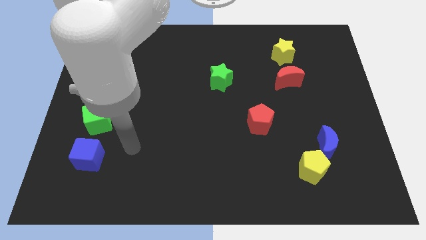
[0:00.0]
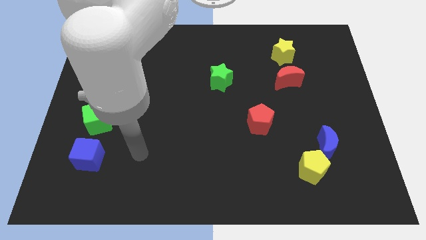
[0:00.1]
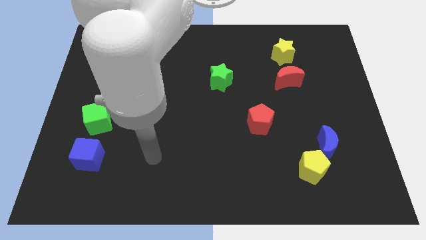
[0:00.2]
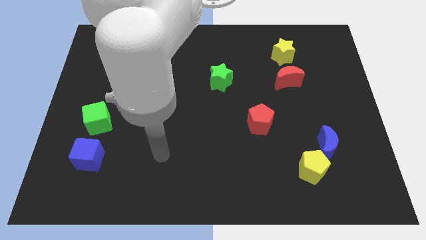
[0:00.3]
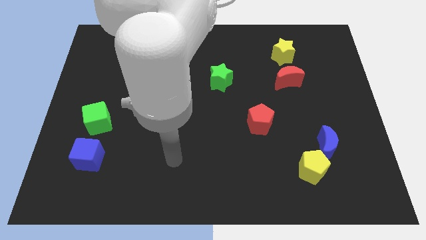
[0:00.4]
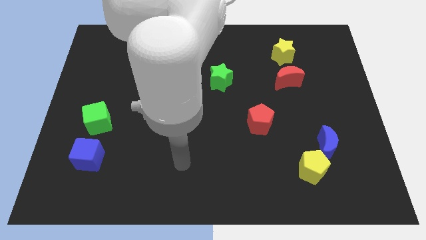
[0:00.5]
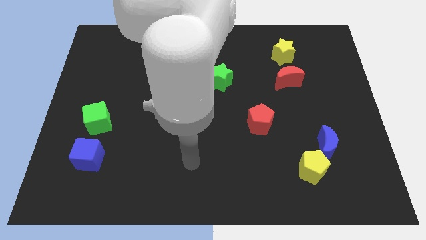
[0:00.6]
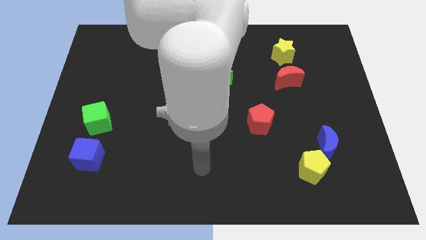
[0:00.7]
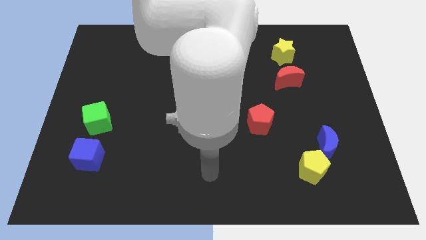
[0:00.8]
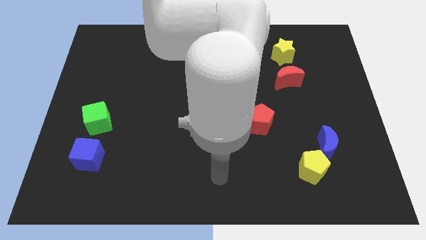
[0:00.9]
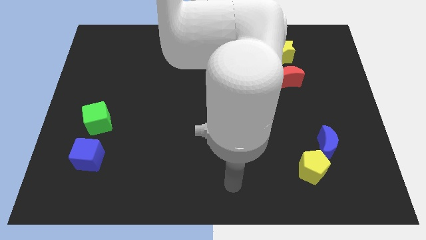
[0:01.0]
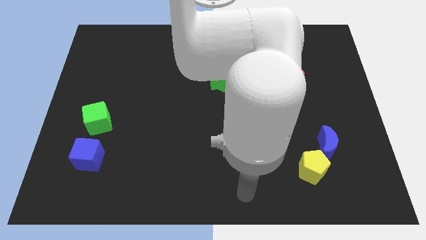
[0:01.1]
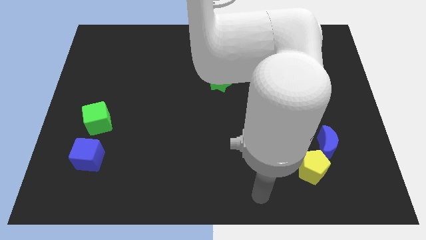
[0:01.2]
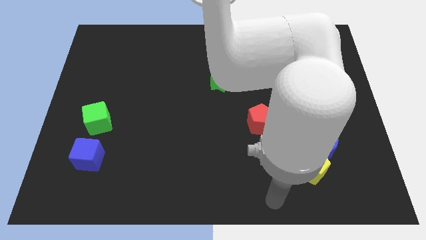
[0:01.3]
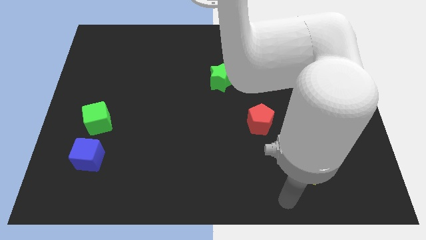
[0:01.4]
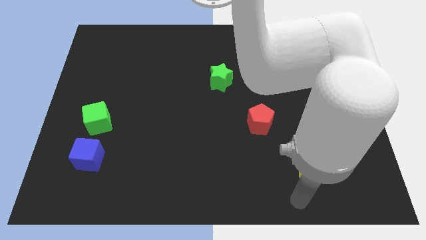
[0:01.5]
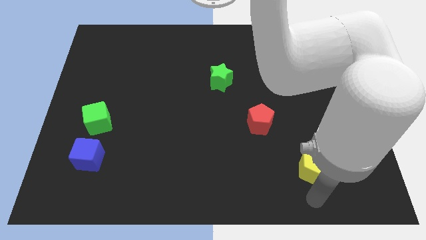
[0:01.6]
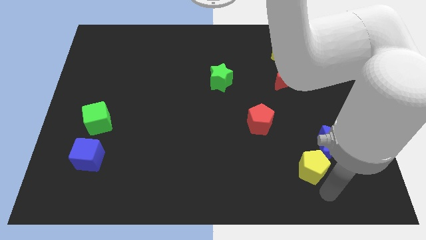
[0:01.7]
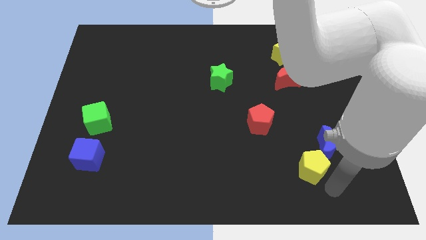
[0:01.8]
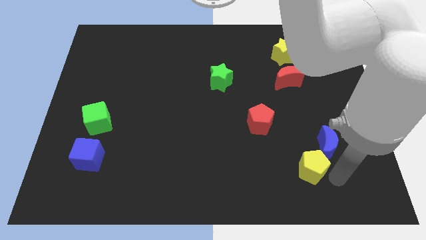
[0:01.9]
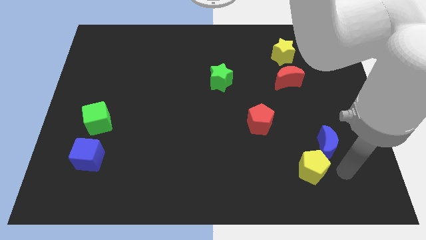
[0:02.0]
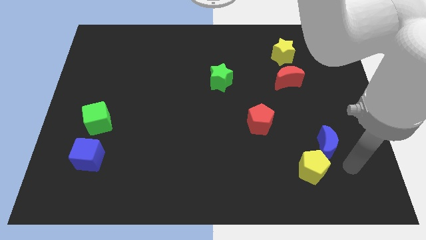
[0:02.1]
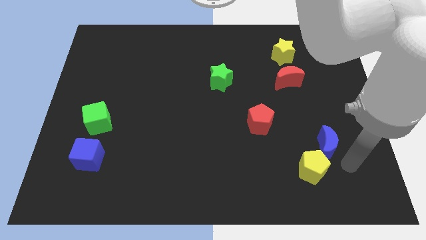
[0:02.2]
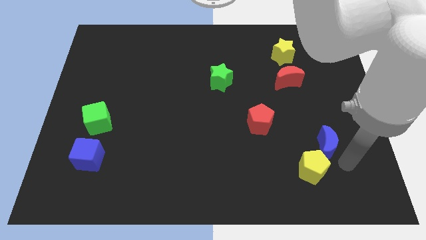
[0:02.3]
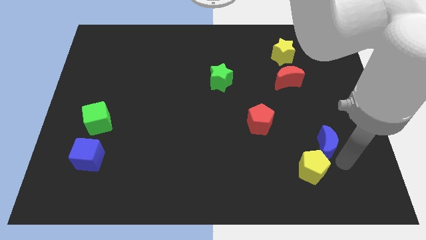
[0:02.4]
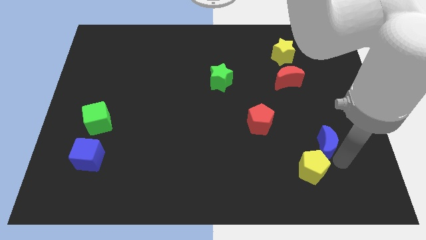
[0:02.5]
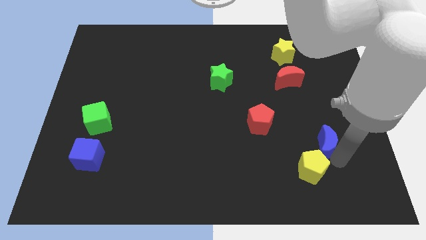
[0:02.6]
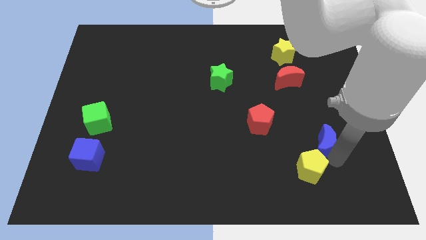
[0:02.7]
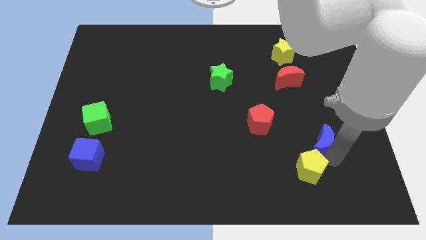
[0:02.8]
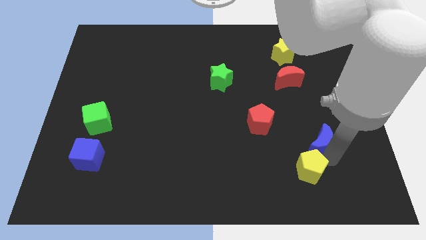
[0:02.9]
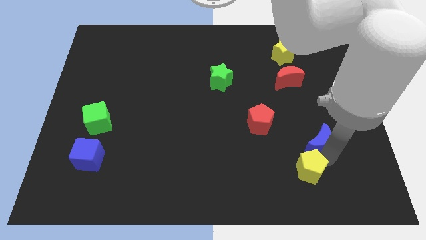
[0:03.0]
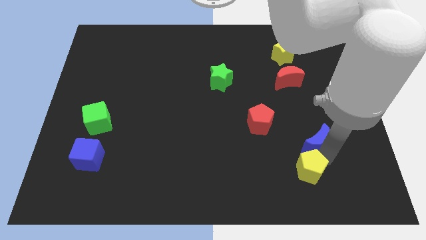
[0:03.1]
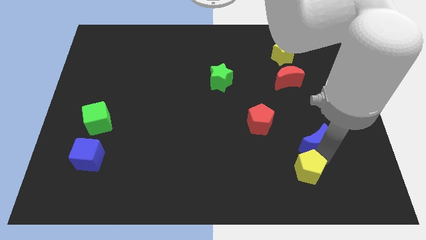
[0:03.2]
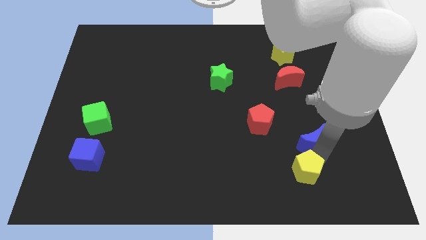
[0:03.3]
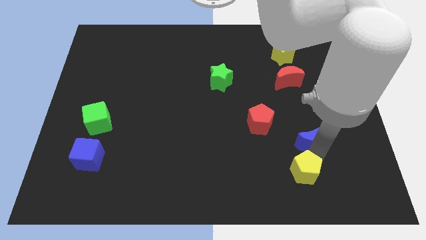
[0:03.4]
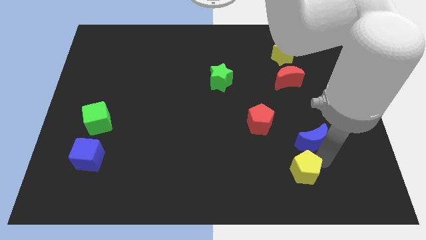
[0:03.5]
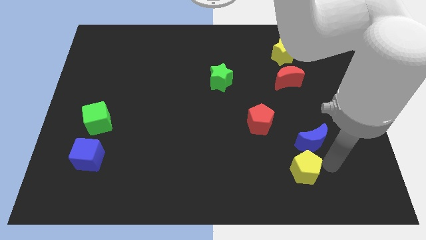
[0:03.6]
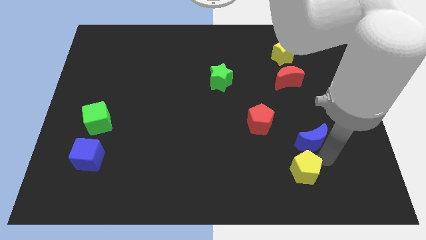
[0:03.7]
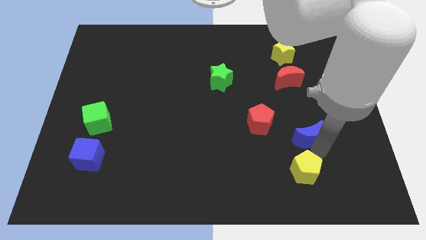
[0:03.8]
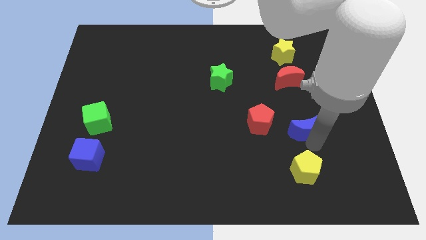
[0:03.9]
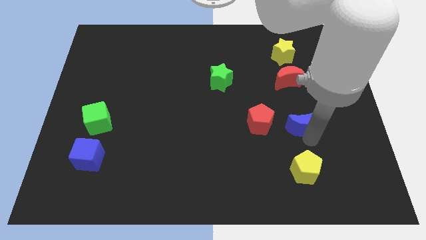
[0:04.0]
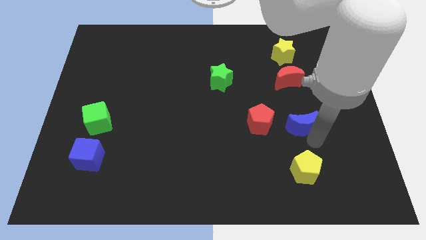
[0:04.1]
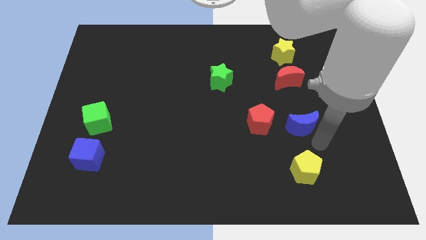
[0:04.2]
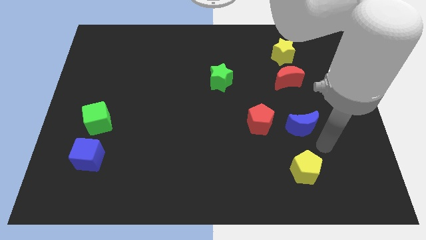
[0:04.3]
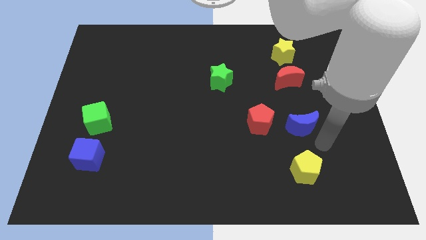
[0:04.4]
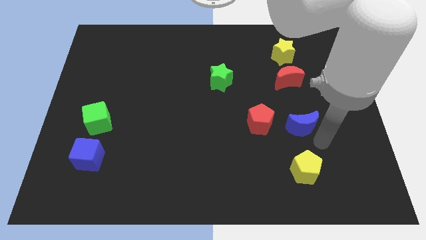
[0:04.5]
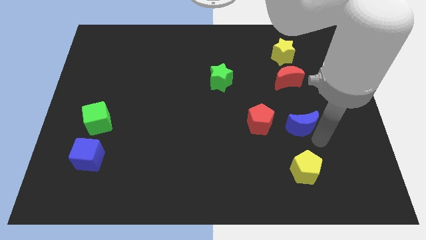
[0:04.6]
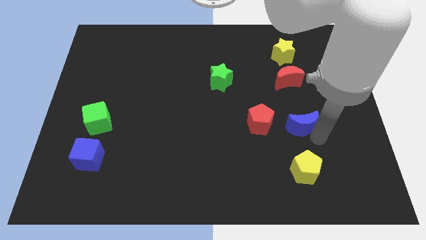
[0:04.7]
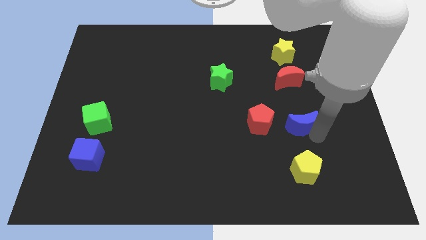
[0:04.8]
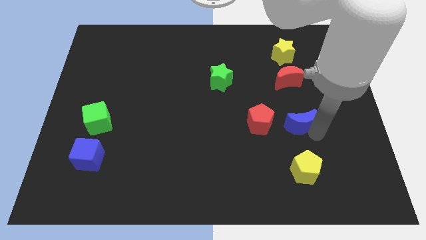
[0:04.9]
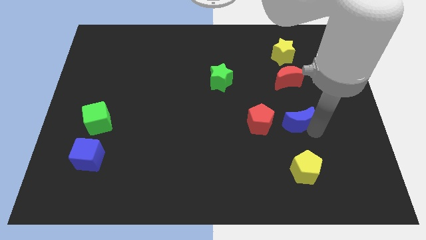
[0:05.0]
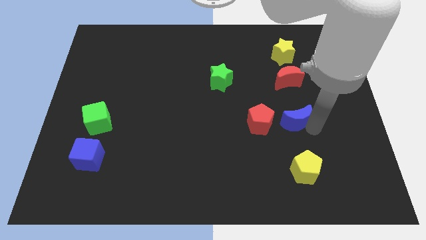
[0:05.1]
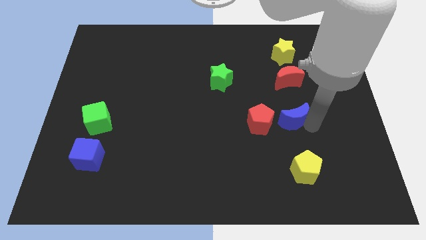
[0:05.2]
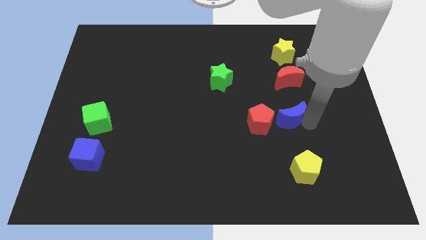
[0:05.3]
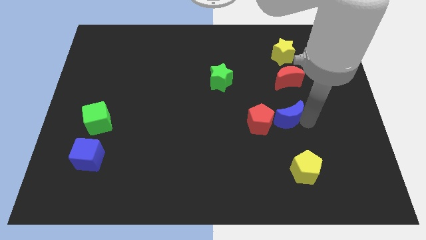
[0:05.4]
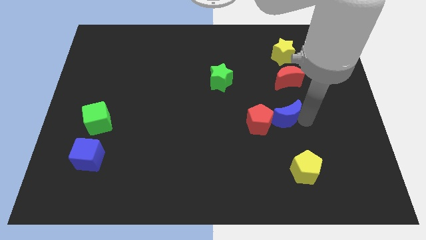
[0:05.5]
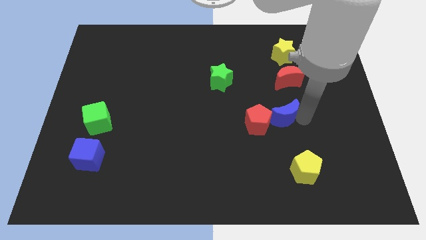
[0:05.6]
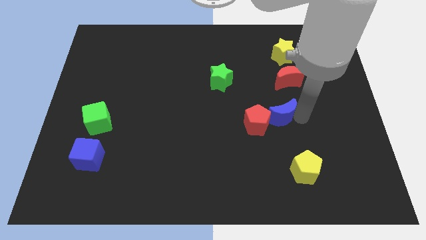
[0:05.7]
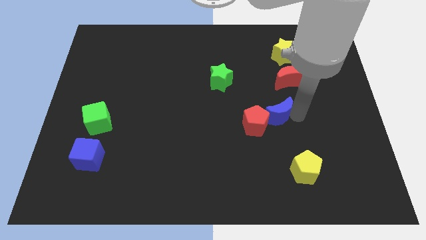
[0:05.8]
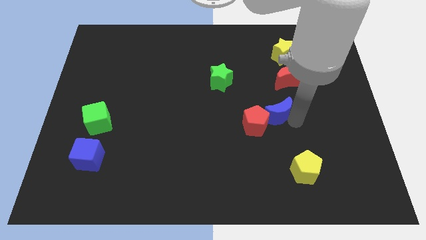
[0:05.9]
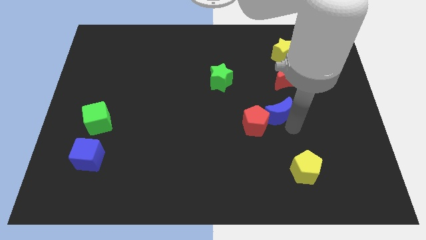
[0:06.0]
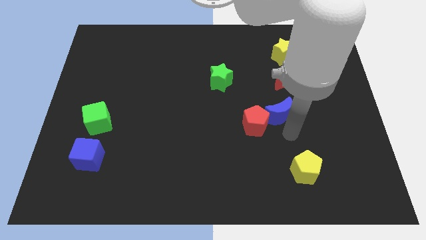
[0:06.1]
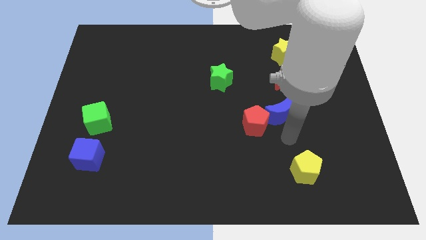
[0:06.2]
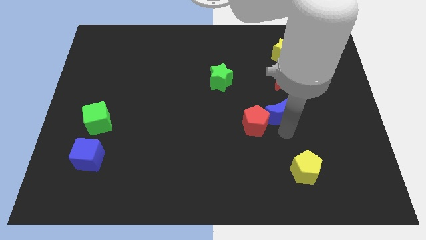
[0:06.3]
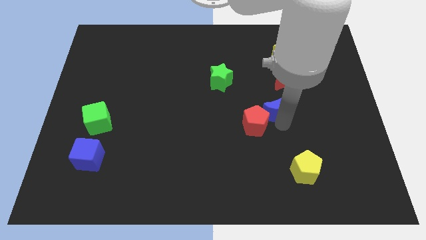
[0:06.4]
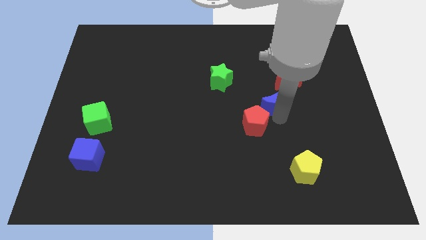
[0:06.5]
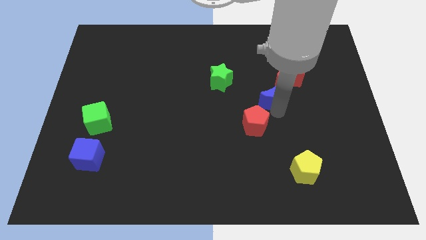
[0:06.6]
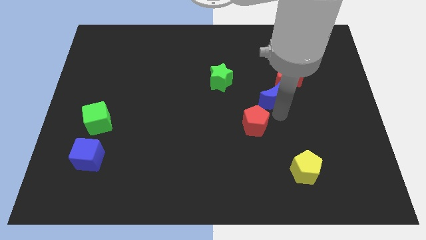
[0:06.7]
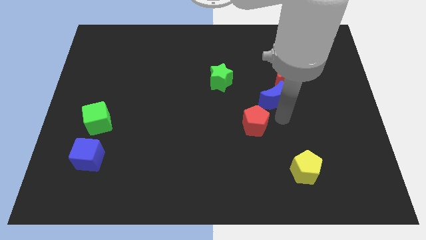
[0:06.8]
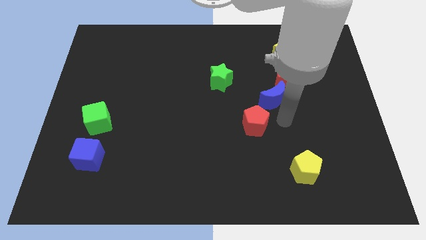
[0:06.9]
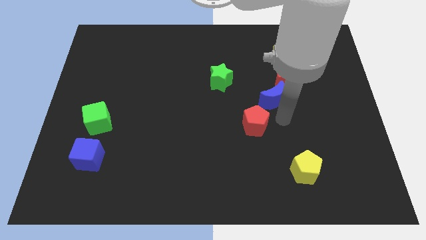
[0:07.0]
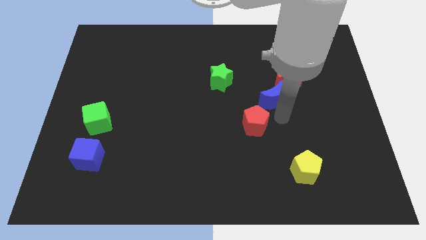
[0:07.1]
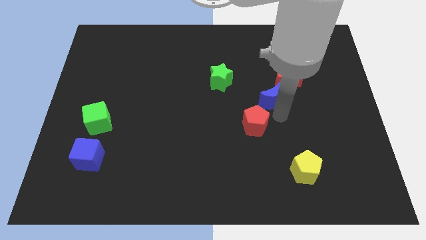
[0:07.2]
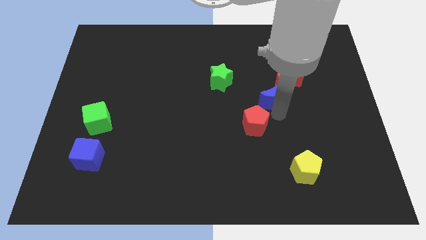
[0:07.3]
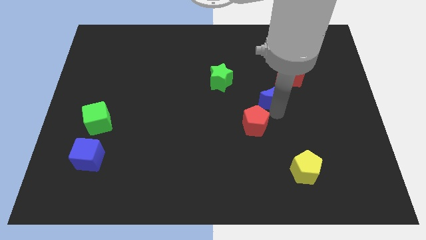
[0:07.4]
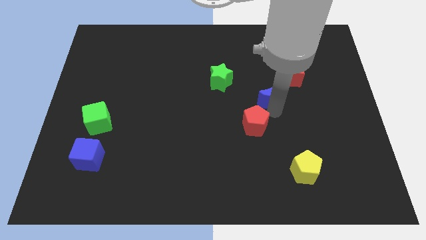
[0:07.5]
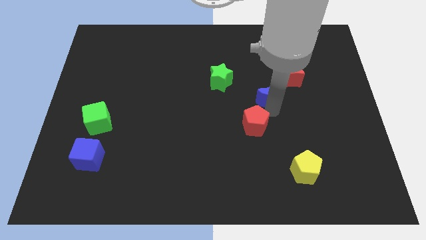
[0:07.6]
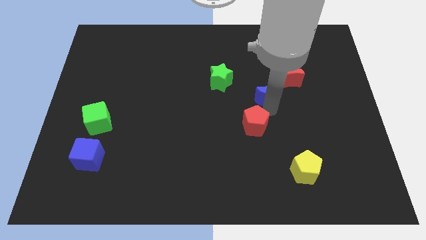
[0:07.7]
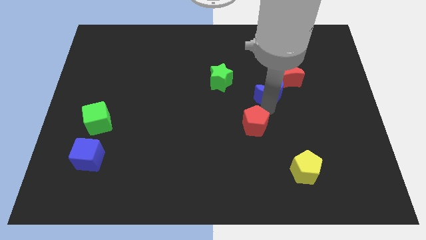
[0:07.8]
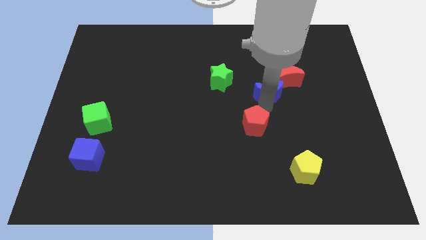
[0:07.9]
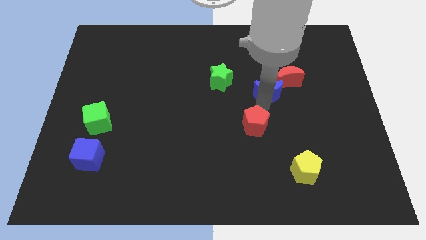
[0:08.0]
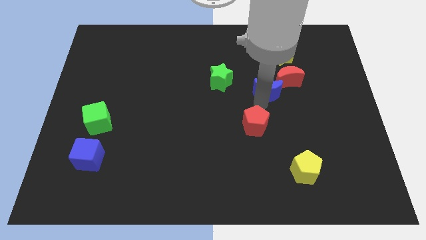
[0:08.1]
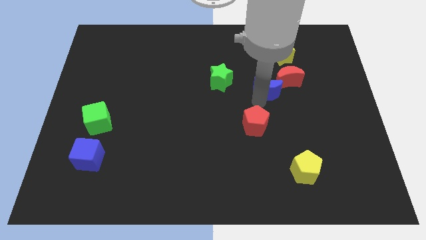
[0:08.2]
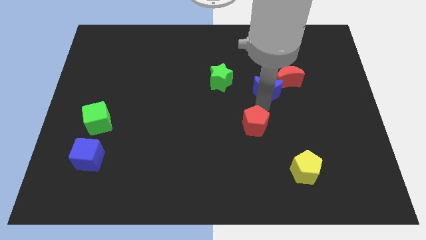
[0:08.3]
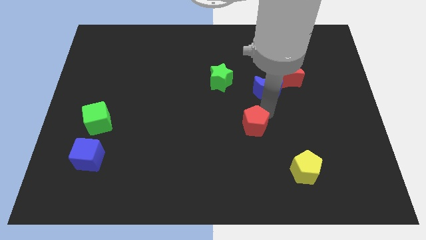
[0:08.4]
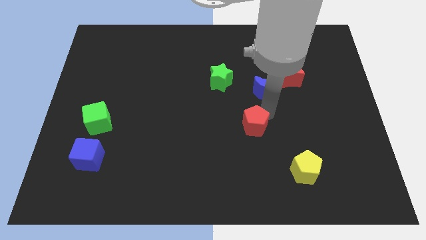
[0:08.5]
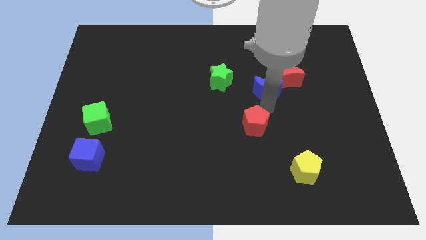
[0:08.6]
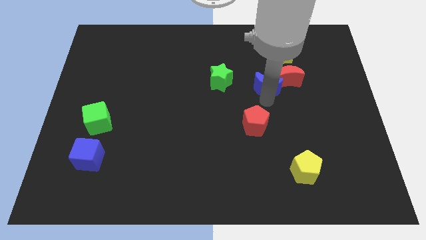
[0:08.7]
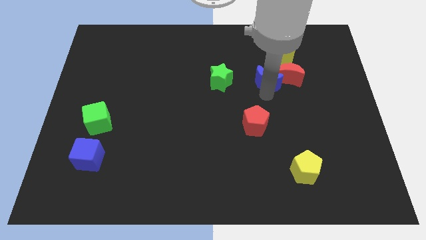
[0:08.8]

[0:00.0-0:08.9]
push the blue moon diagonally down and to the left of the yellow star
